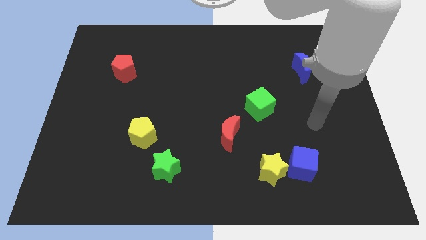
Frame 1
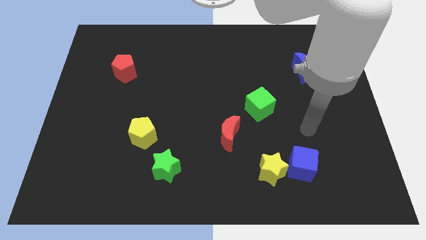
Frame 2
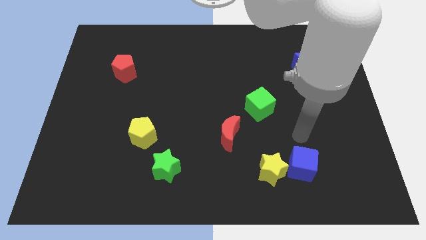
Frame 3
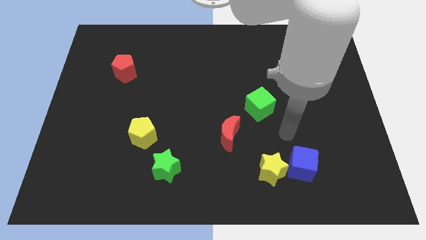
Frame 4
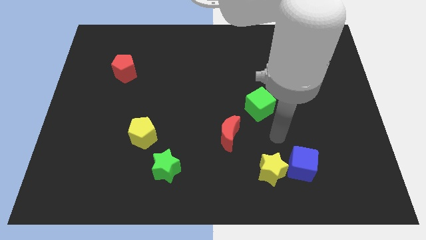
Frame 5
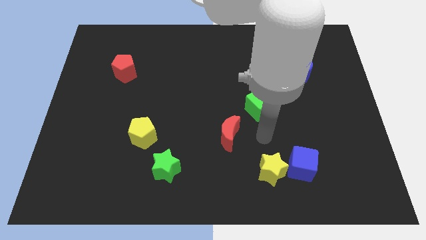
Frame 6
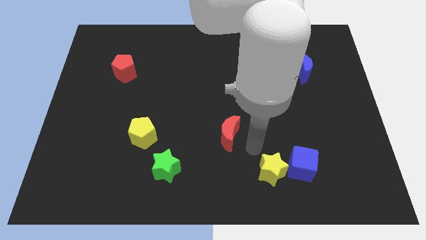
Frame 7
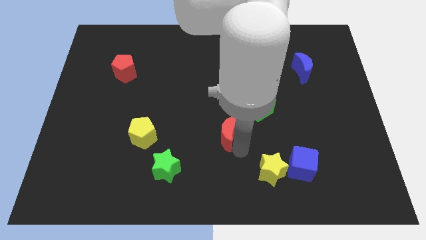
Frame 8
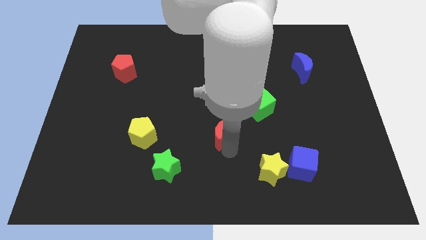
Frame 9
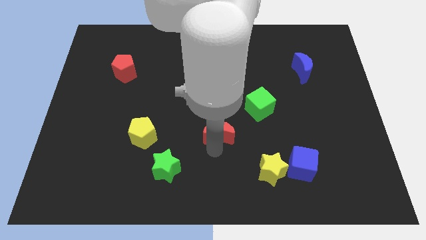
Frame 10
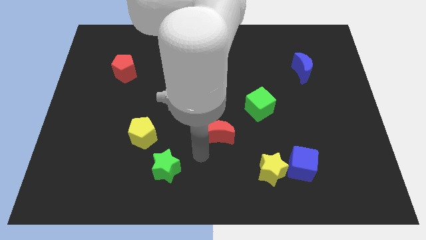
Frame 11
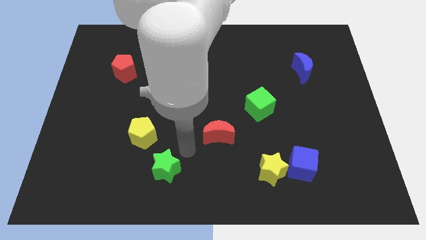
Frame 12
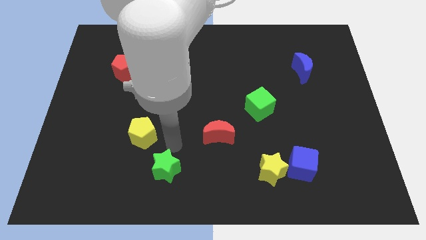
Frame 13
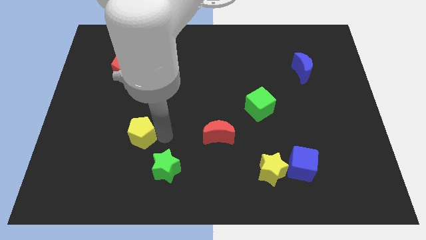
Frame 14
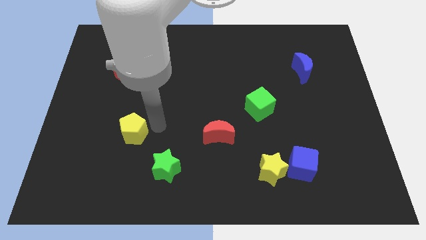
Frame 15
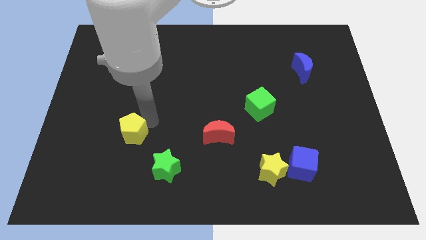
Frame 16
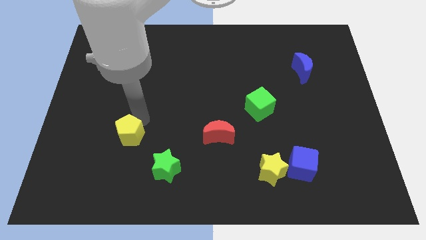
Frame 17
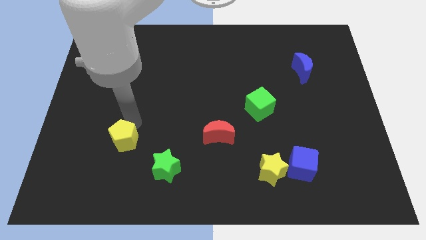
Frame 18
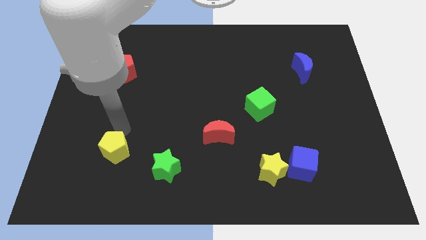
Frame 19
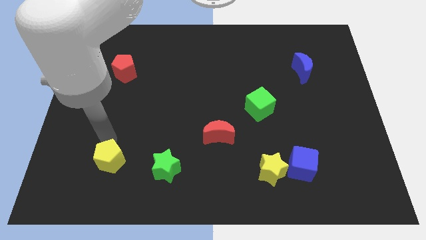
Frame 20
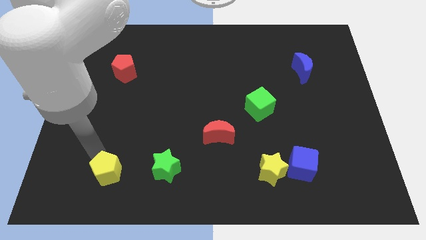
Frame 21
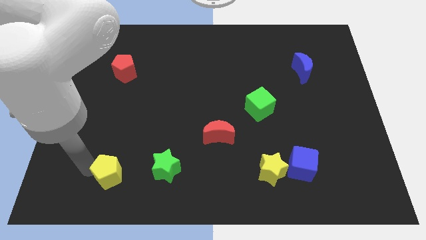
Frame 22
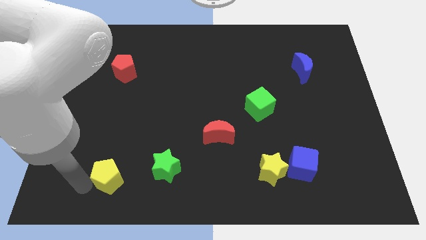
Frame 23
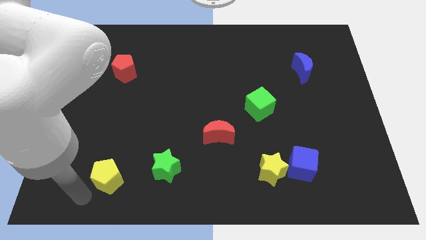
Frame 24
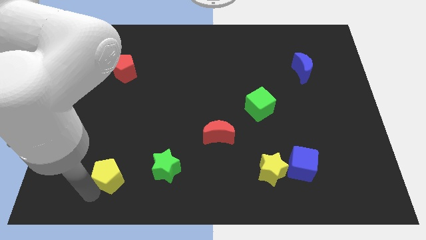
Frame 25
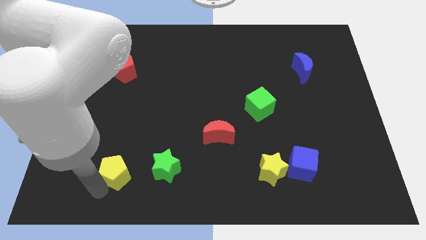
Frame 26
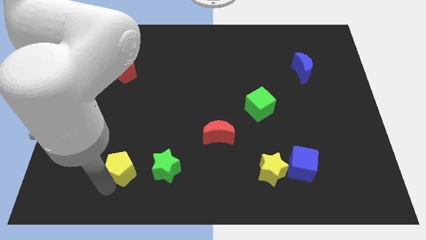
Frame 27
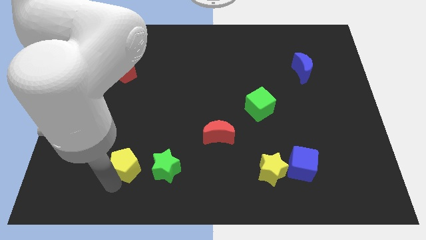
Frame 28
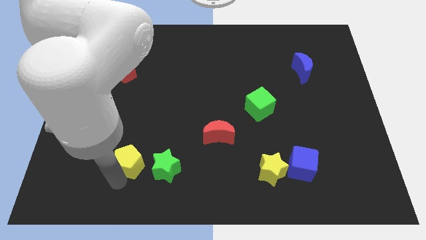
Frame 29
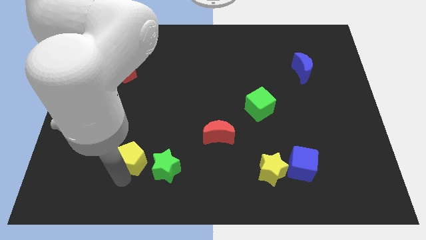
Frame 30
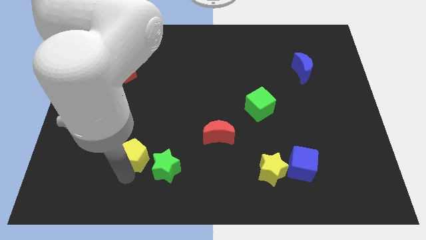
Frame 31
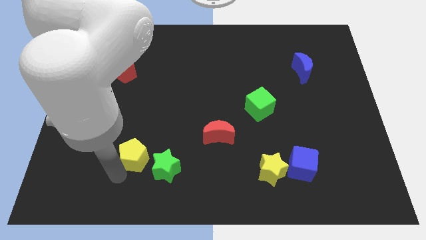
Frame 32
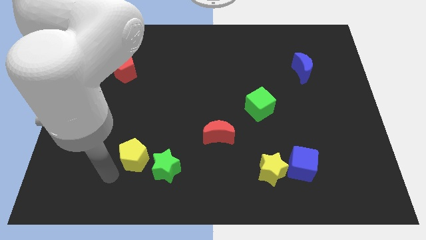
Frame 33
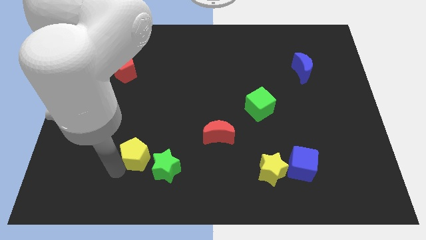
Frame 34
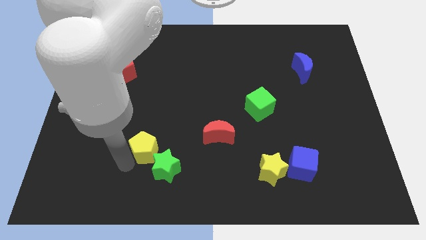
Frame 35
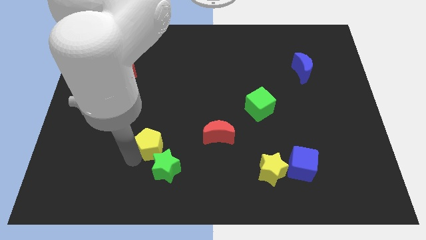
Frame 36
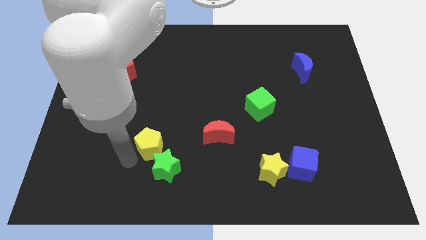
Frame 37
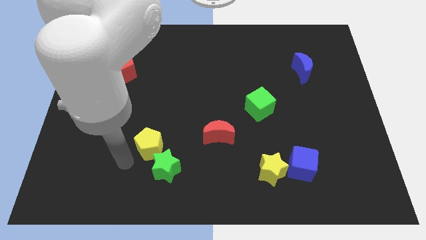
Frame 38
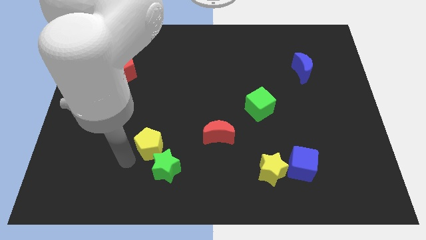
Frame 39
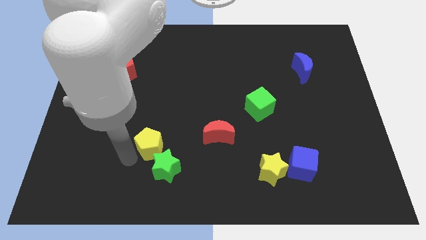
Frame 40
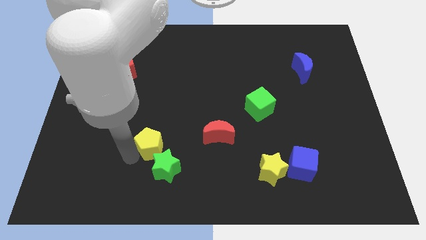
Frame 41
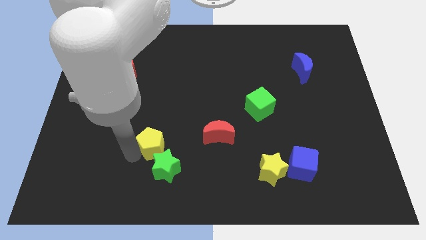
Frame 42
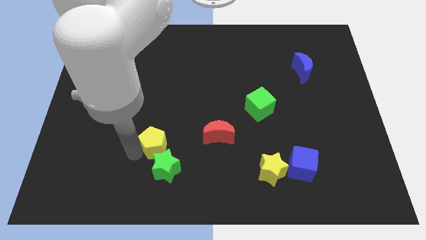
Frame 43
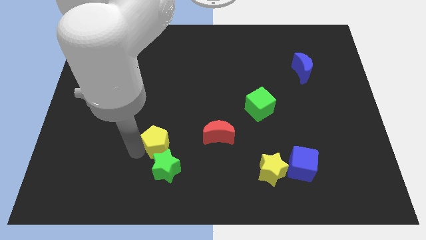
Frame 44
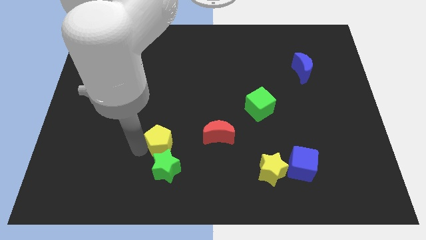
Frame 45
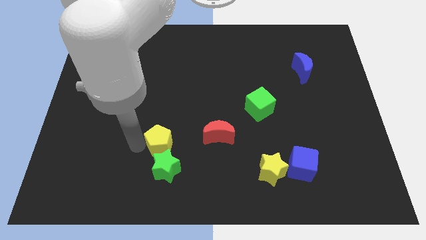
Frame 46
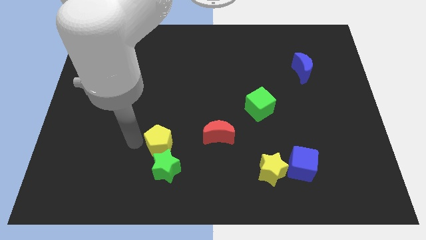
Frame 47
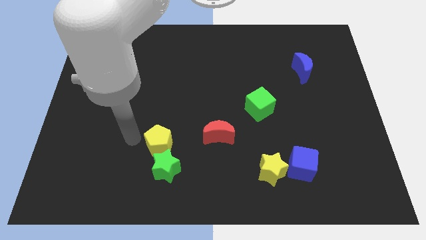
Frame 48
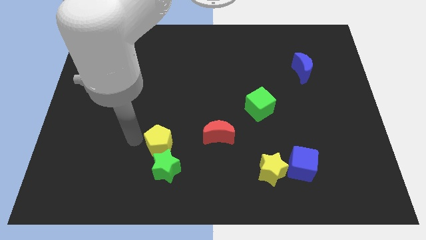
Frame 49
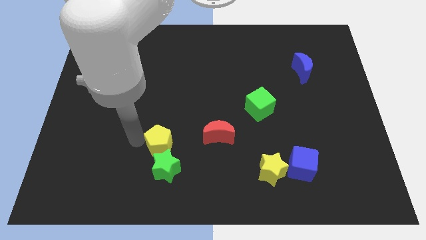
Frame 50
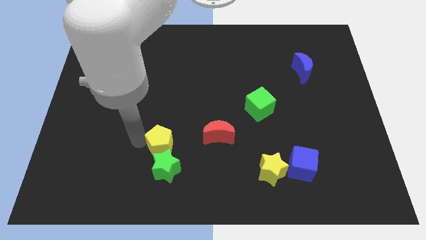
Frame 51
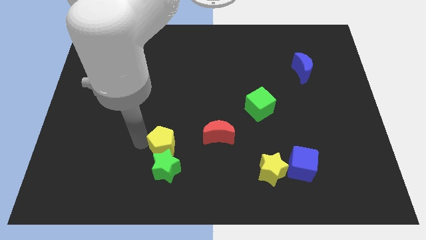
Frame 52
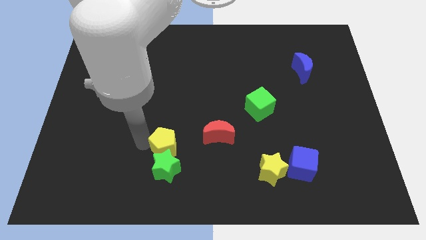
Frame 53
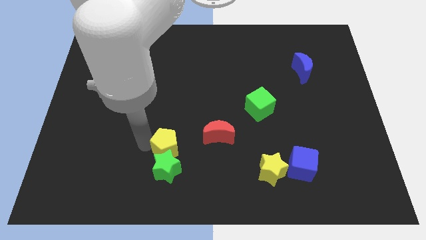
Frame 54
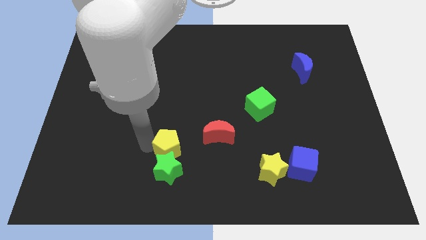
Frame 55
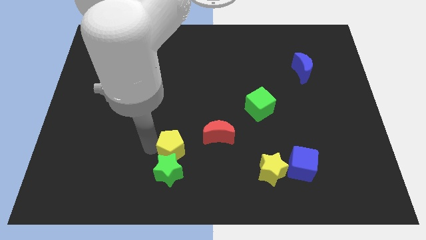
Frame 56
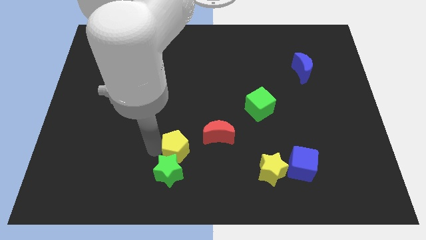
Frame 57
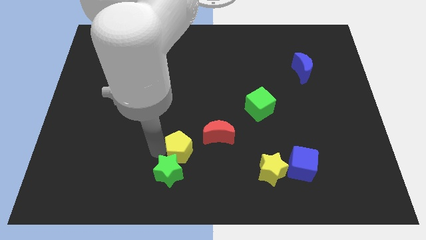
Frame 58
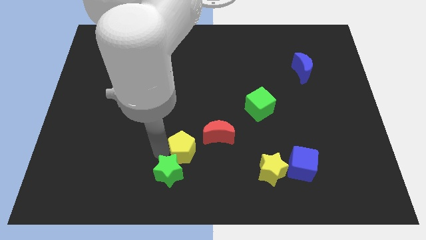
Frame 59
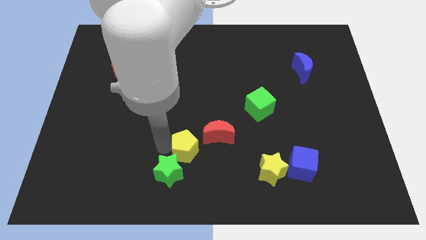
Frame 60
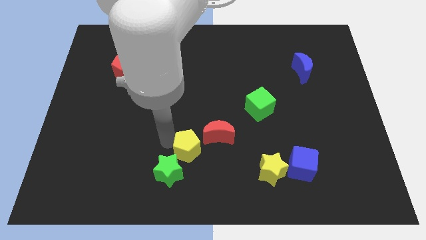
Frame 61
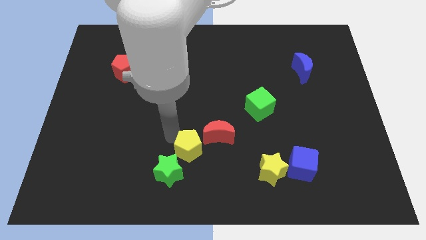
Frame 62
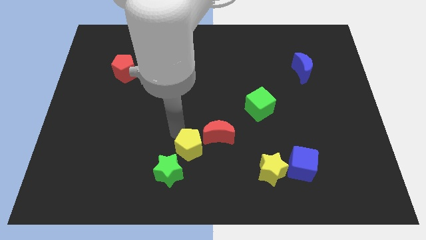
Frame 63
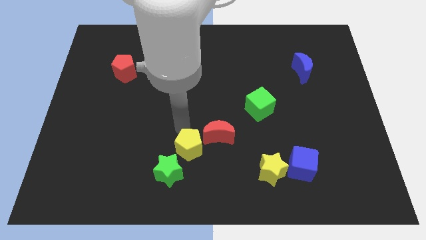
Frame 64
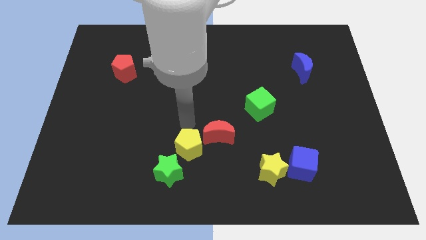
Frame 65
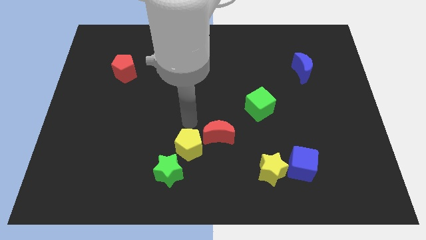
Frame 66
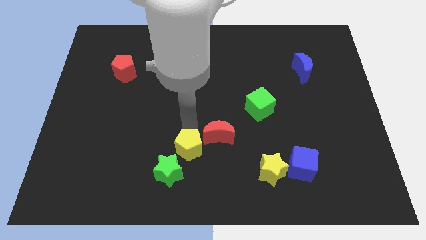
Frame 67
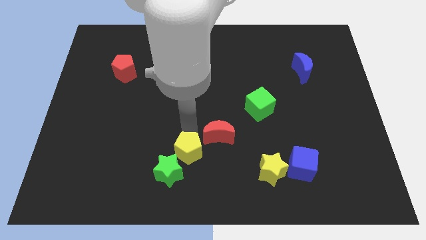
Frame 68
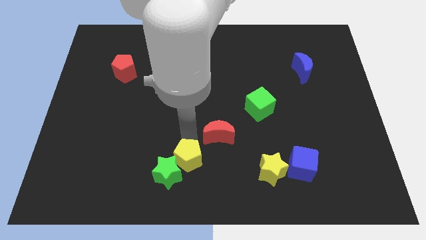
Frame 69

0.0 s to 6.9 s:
move the yellow pentagon to the bottom side
